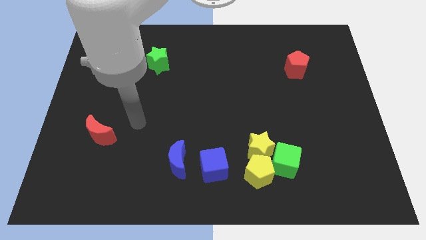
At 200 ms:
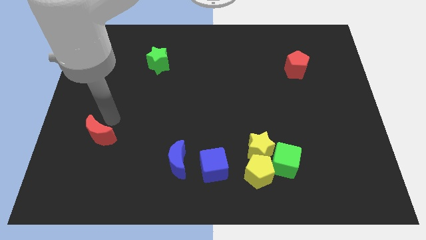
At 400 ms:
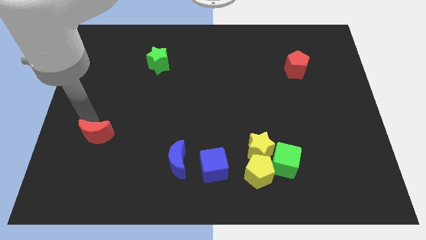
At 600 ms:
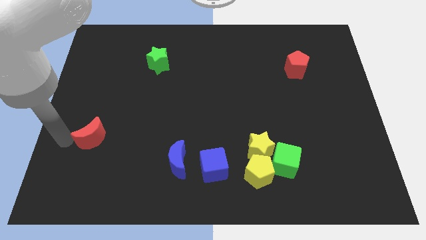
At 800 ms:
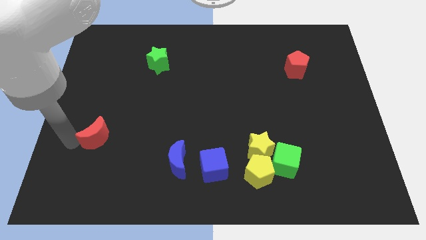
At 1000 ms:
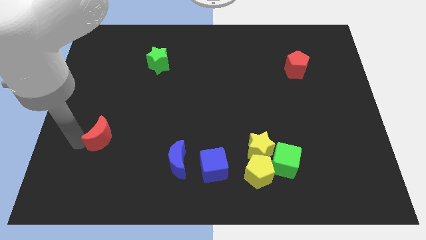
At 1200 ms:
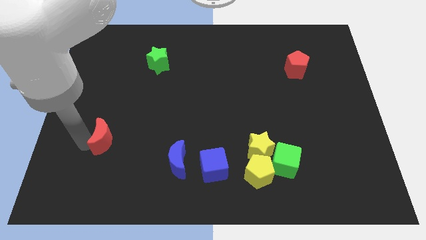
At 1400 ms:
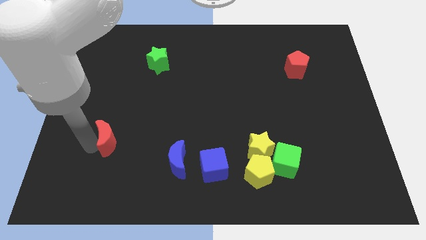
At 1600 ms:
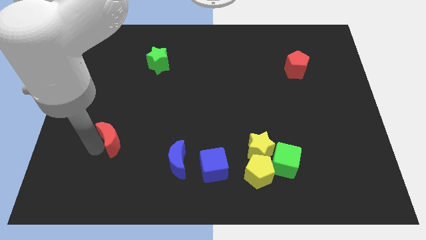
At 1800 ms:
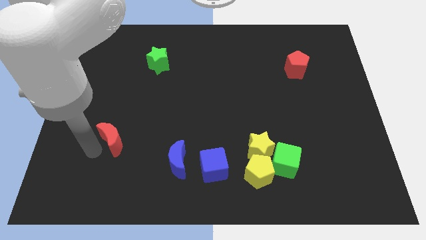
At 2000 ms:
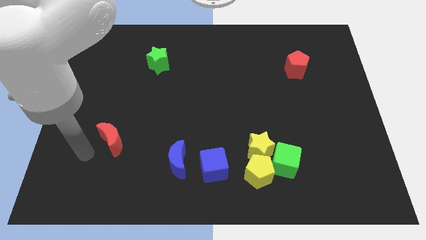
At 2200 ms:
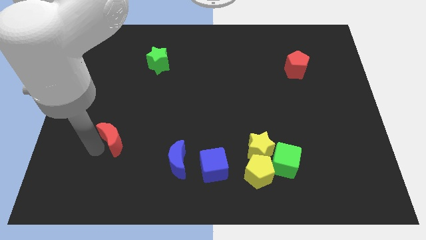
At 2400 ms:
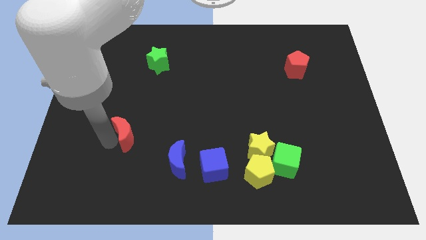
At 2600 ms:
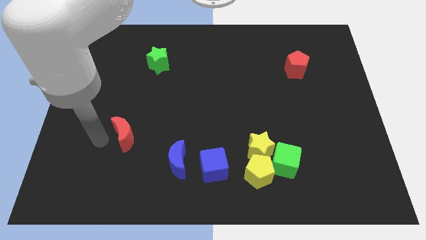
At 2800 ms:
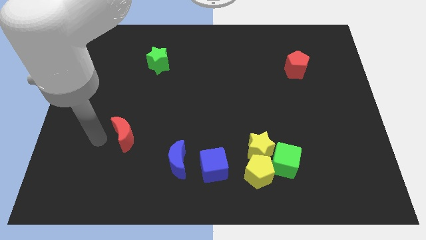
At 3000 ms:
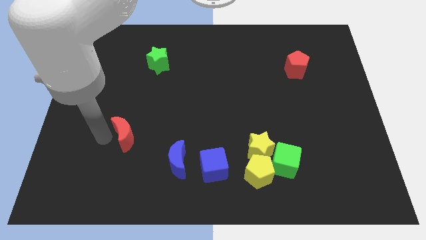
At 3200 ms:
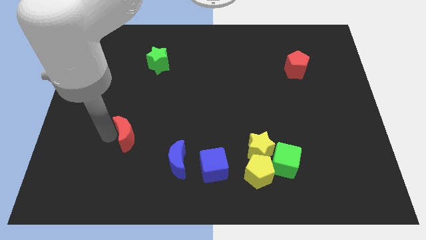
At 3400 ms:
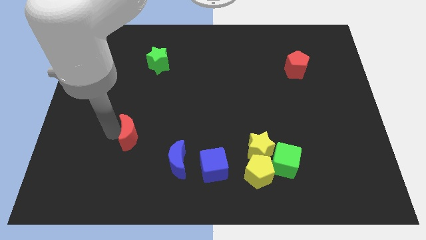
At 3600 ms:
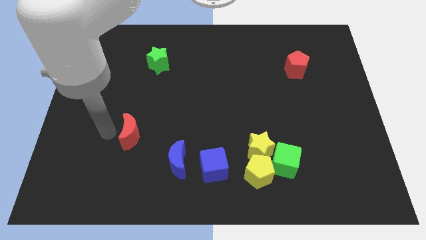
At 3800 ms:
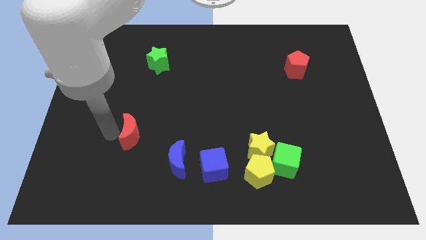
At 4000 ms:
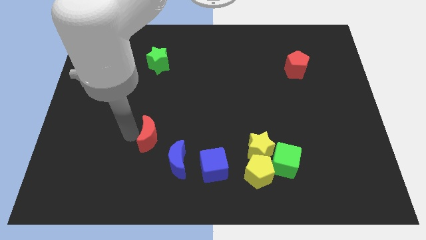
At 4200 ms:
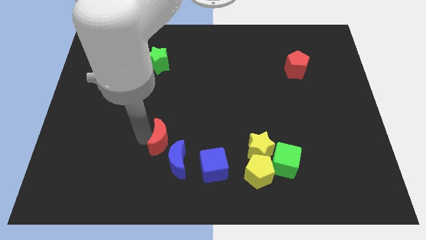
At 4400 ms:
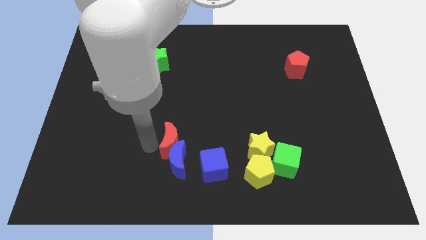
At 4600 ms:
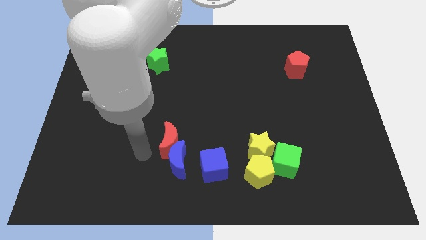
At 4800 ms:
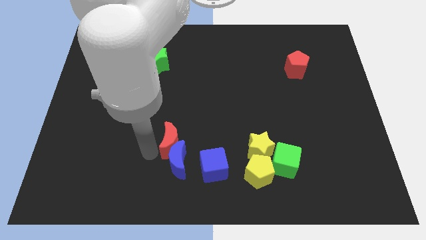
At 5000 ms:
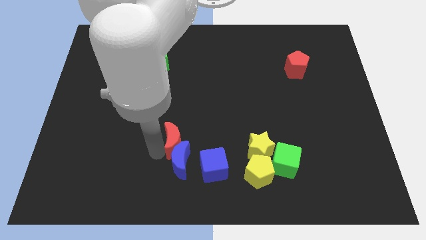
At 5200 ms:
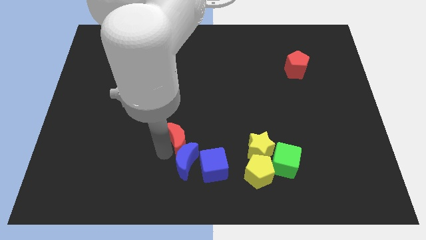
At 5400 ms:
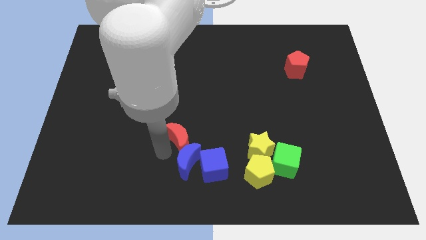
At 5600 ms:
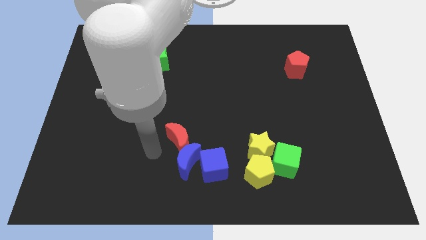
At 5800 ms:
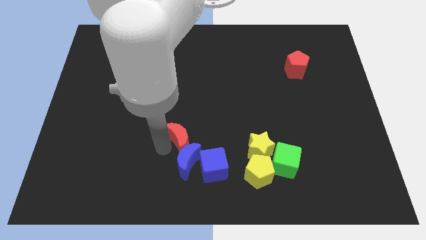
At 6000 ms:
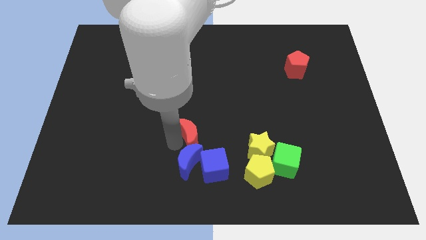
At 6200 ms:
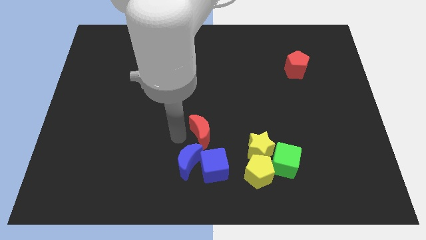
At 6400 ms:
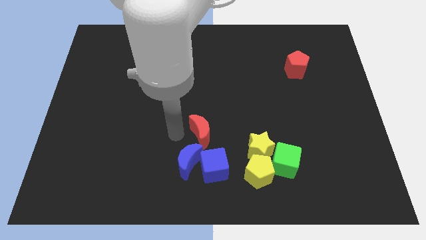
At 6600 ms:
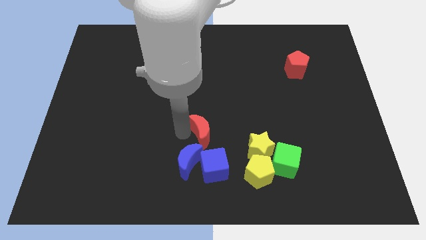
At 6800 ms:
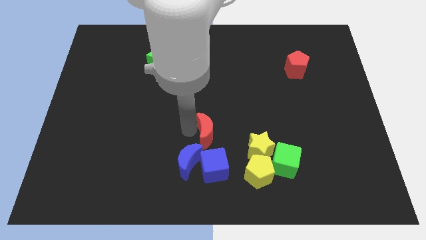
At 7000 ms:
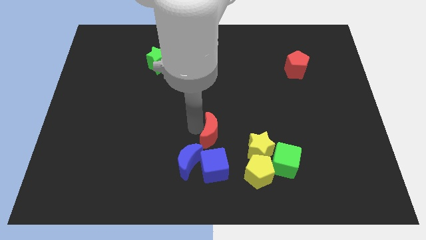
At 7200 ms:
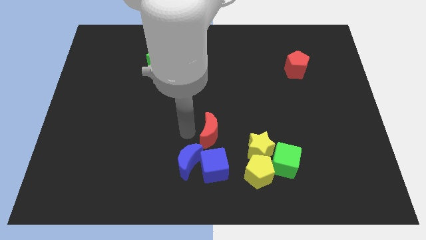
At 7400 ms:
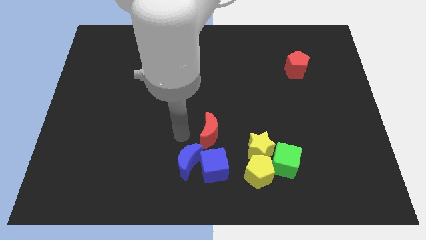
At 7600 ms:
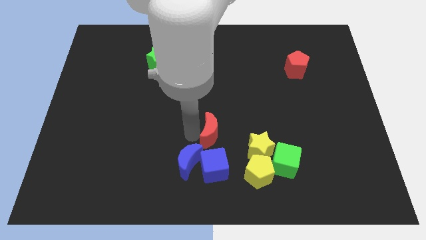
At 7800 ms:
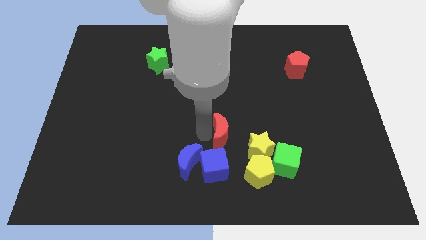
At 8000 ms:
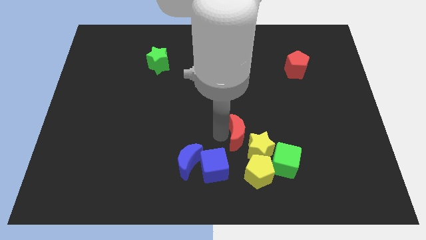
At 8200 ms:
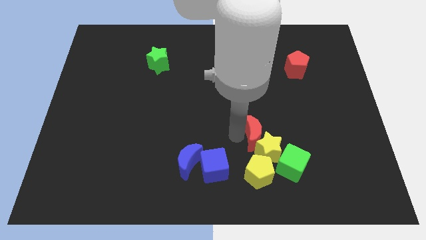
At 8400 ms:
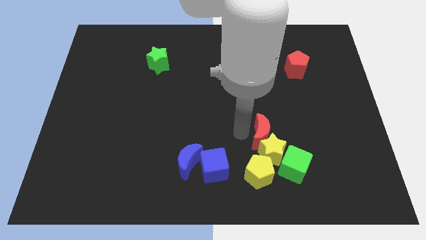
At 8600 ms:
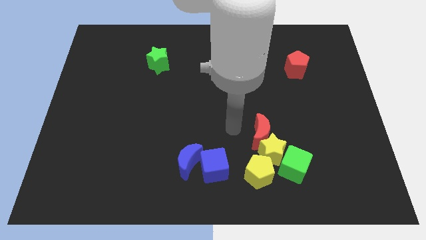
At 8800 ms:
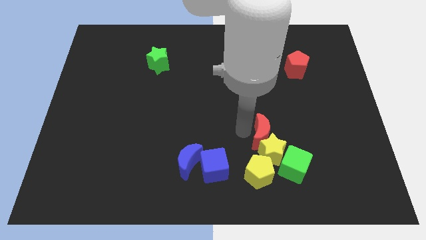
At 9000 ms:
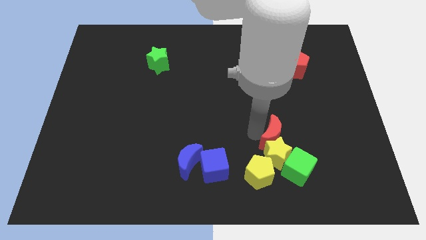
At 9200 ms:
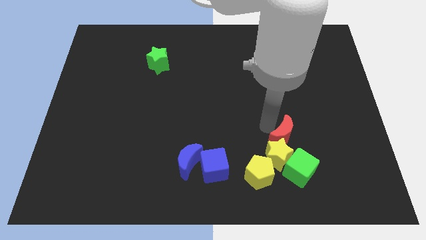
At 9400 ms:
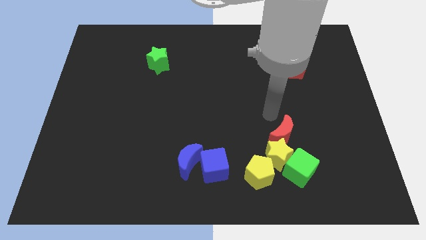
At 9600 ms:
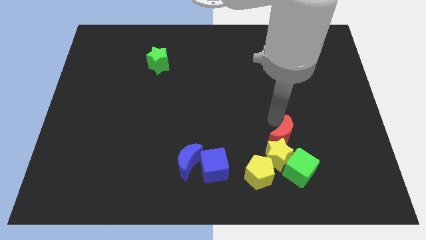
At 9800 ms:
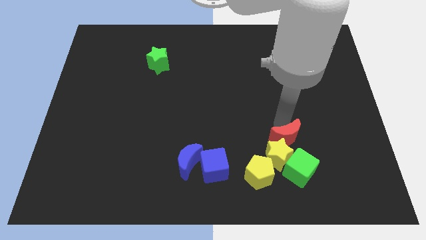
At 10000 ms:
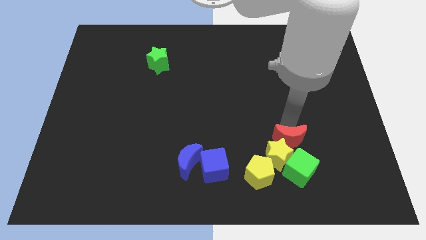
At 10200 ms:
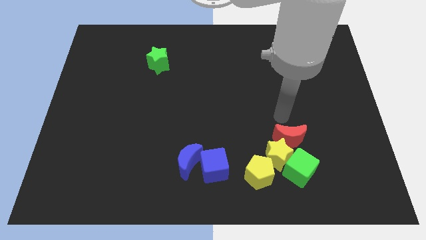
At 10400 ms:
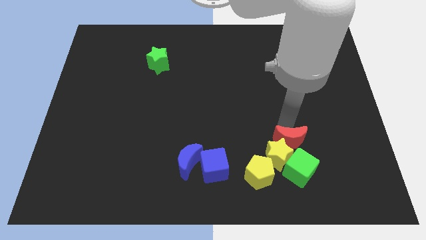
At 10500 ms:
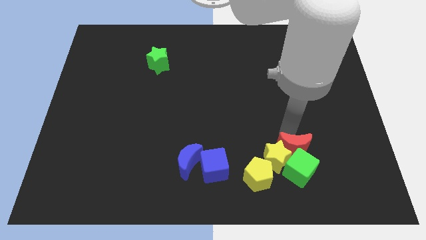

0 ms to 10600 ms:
push the red moon to the green cube

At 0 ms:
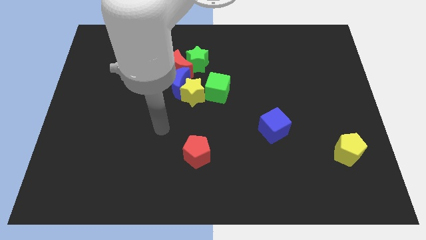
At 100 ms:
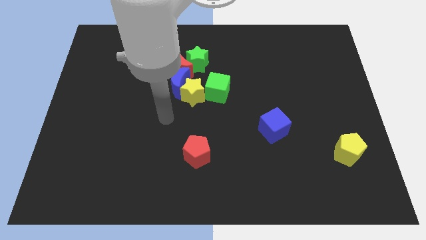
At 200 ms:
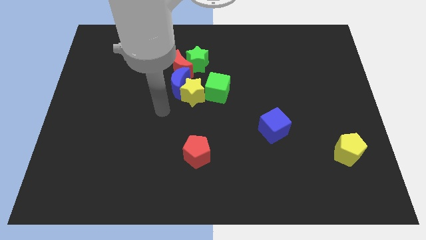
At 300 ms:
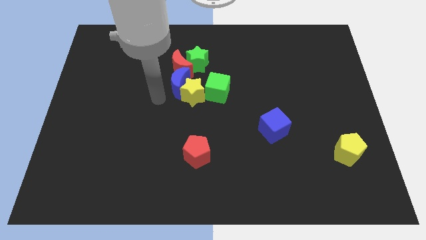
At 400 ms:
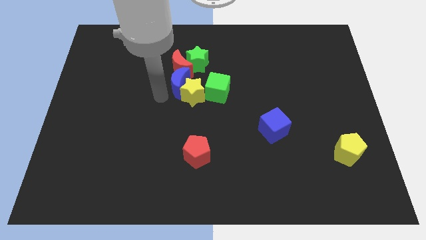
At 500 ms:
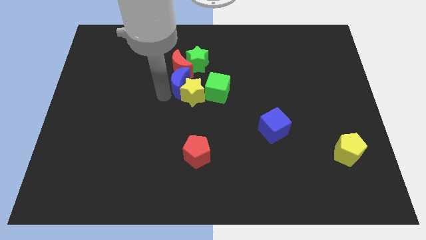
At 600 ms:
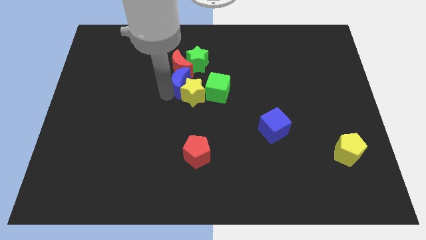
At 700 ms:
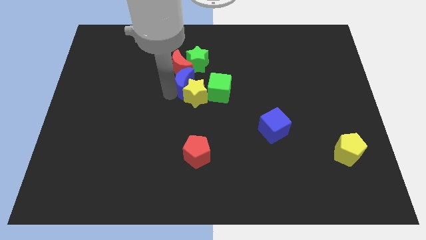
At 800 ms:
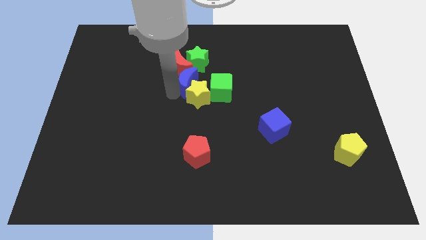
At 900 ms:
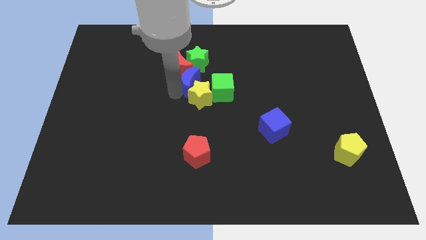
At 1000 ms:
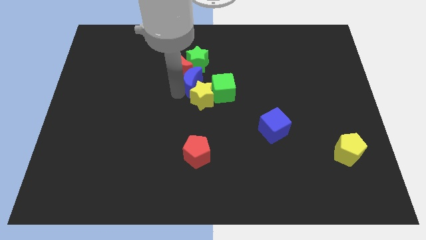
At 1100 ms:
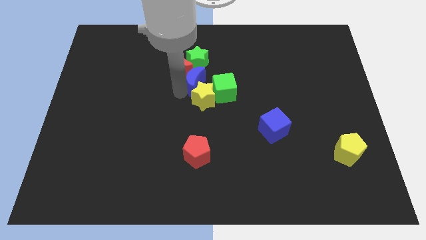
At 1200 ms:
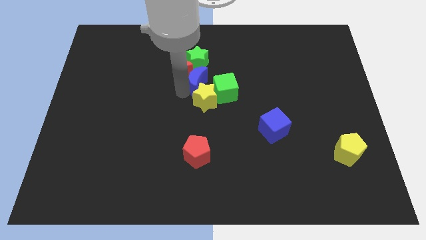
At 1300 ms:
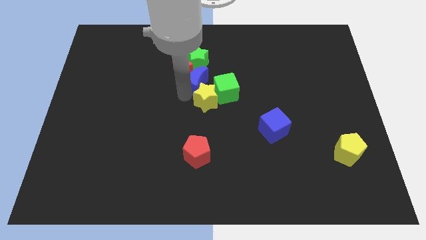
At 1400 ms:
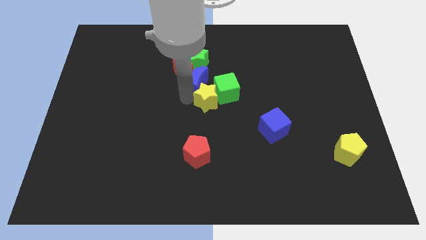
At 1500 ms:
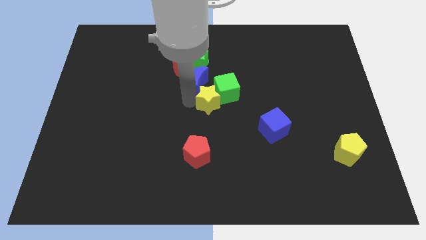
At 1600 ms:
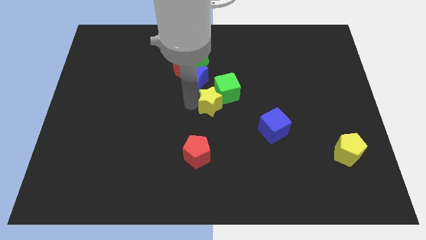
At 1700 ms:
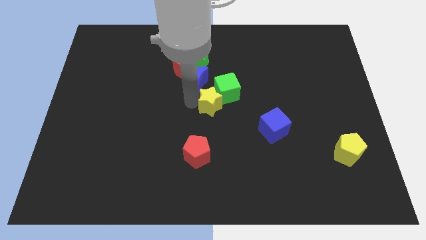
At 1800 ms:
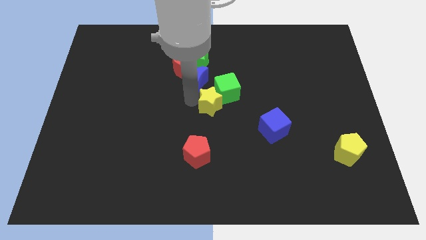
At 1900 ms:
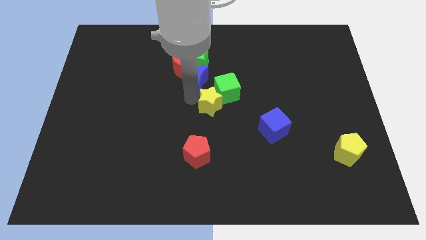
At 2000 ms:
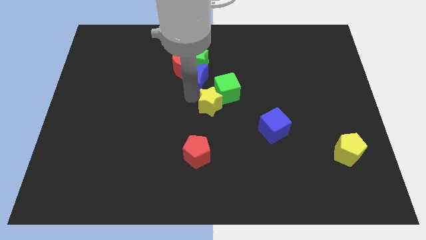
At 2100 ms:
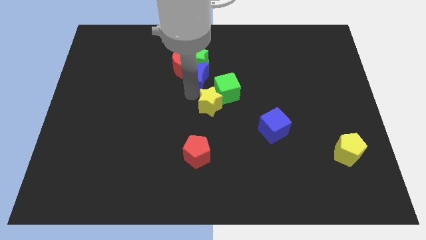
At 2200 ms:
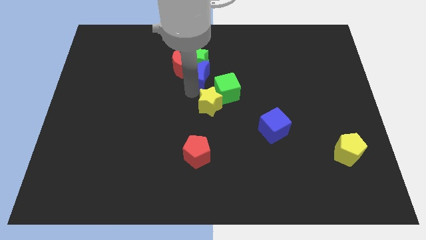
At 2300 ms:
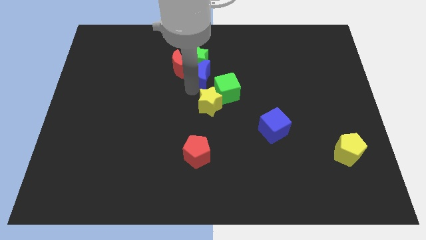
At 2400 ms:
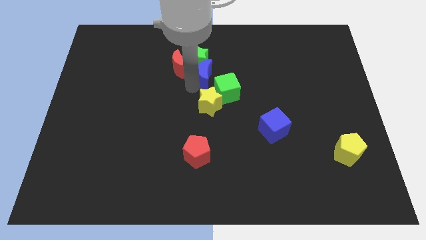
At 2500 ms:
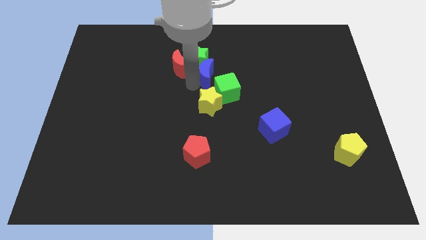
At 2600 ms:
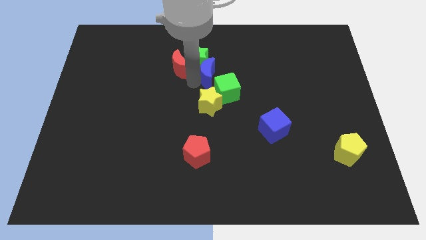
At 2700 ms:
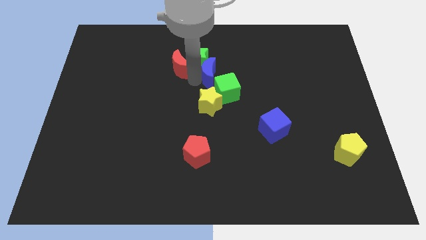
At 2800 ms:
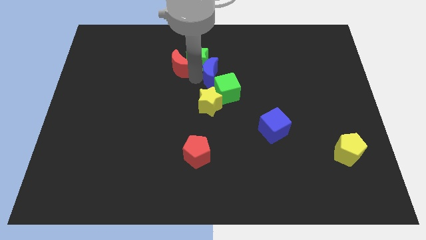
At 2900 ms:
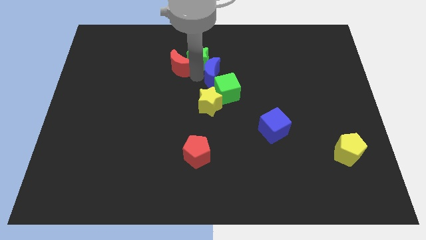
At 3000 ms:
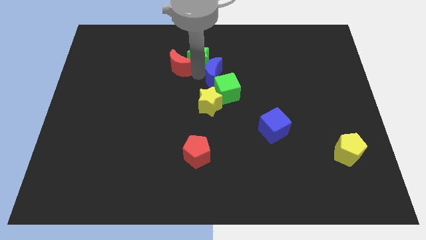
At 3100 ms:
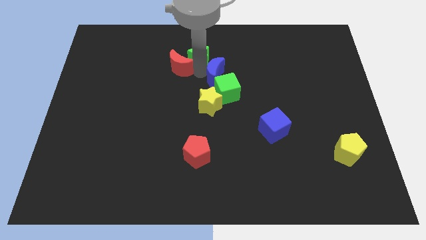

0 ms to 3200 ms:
move the blue moon towards the green cube
